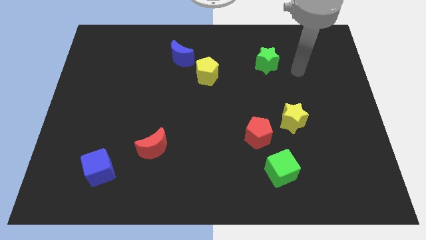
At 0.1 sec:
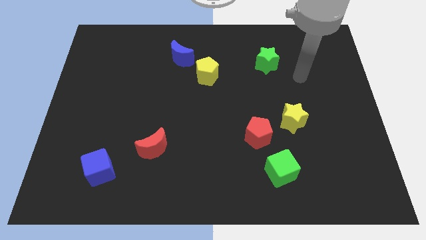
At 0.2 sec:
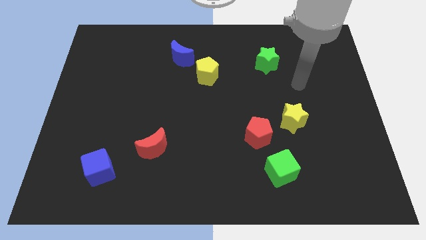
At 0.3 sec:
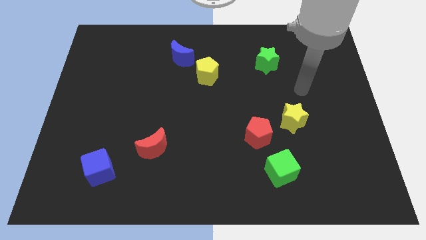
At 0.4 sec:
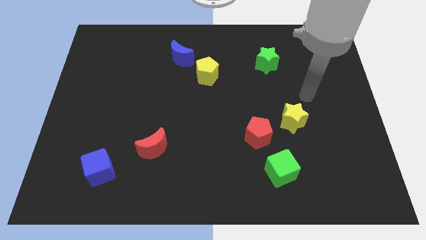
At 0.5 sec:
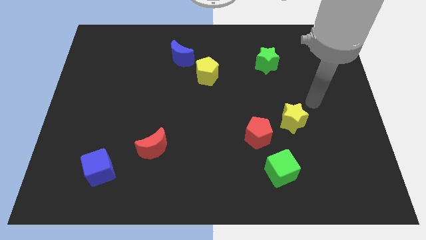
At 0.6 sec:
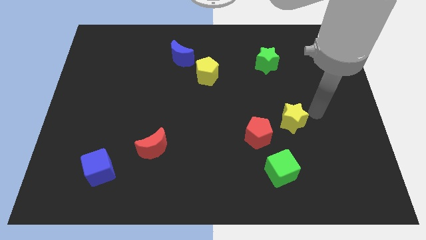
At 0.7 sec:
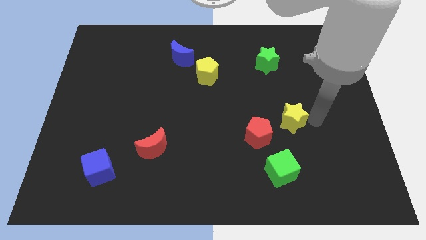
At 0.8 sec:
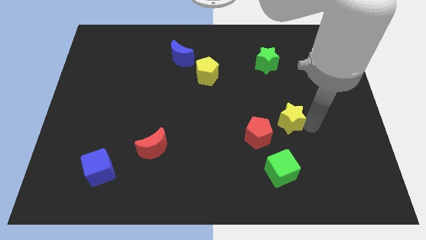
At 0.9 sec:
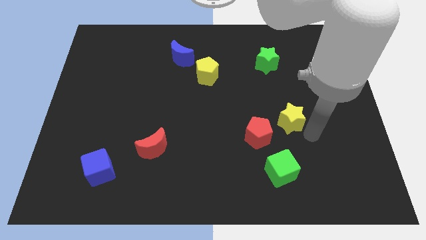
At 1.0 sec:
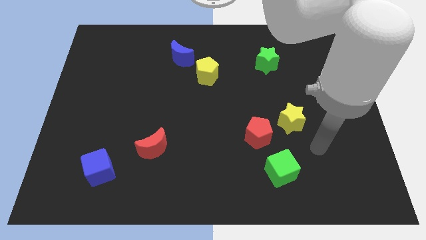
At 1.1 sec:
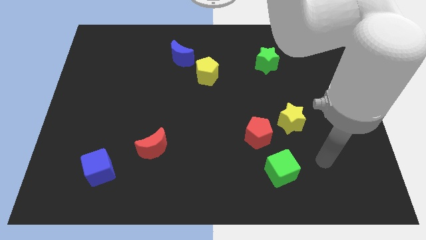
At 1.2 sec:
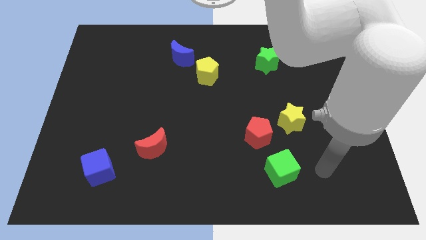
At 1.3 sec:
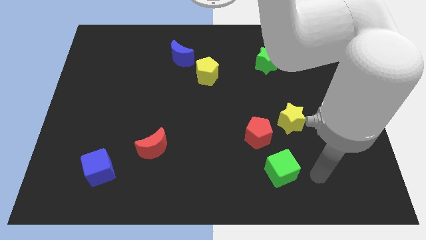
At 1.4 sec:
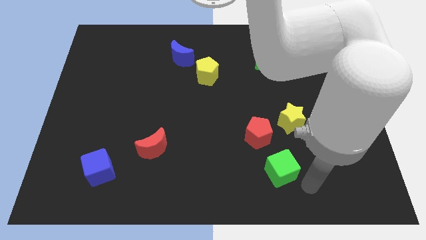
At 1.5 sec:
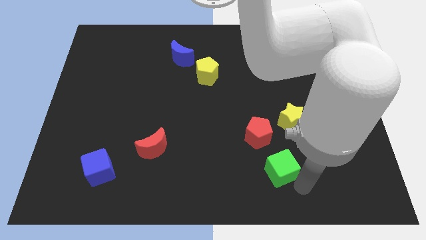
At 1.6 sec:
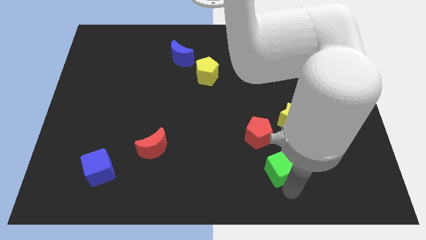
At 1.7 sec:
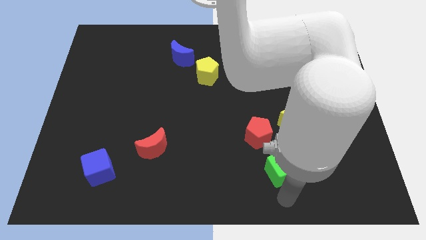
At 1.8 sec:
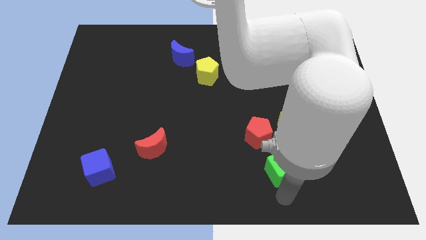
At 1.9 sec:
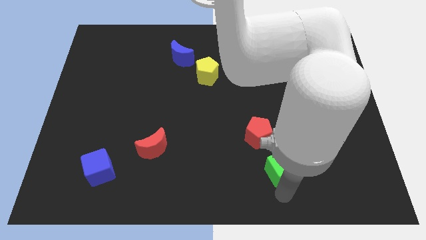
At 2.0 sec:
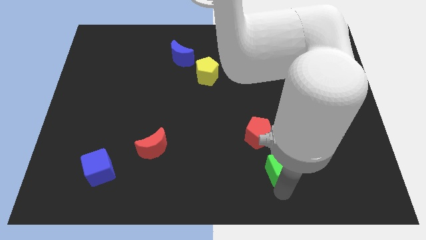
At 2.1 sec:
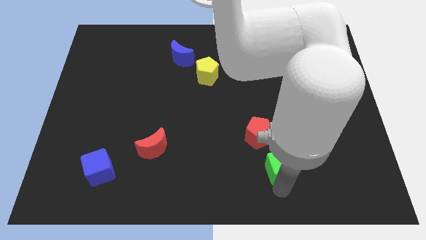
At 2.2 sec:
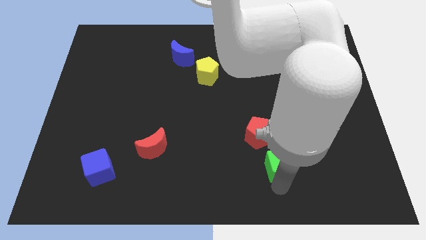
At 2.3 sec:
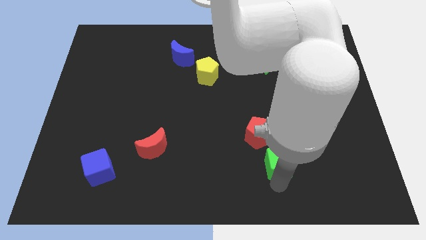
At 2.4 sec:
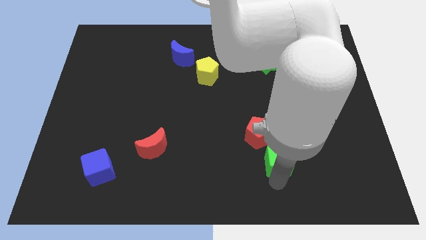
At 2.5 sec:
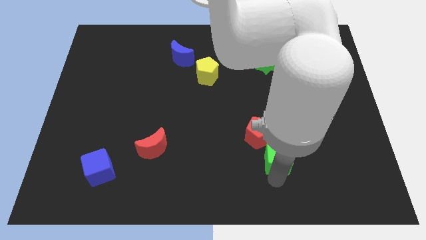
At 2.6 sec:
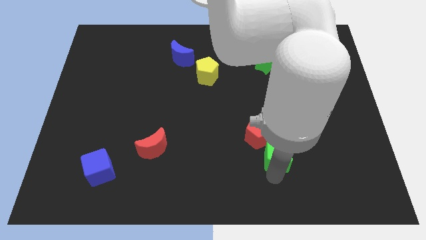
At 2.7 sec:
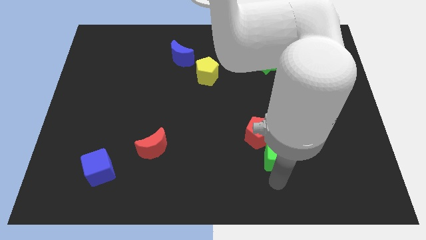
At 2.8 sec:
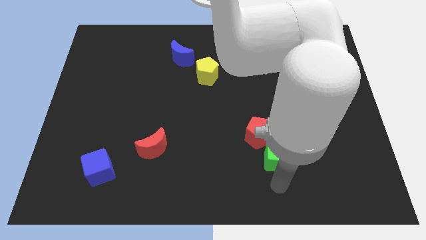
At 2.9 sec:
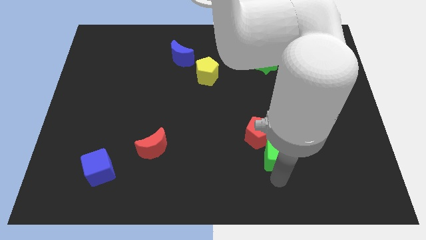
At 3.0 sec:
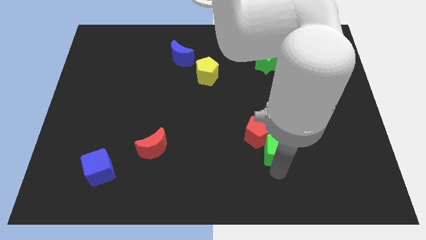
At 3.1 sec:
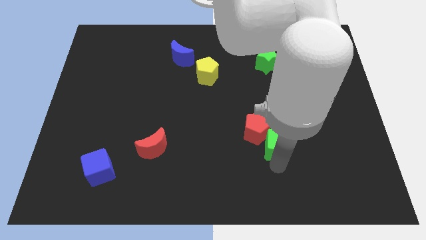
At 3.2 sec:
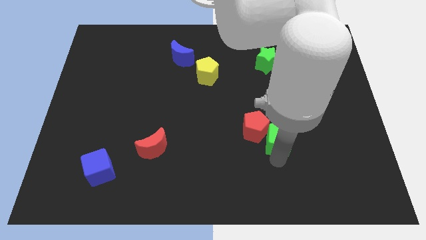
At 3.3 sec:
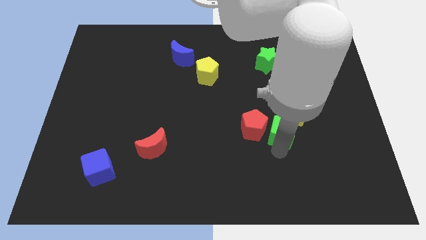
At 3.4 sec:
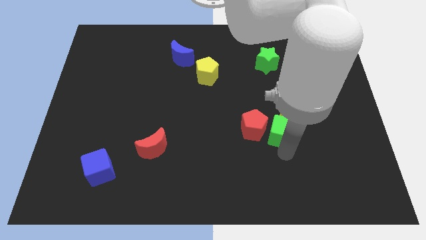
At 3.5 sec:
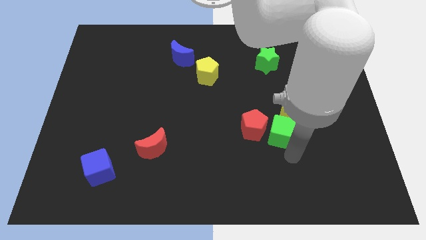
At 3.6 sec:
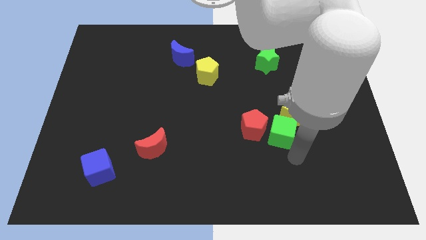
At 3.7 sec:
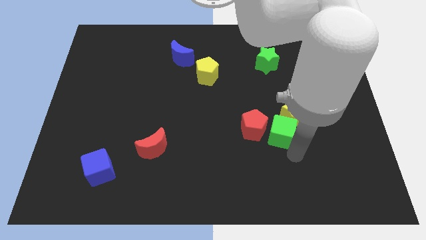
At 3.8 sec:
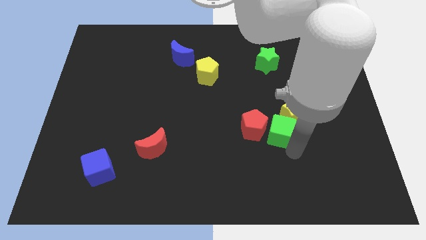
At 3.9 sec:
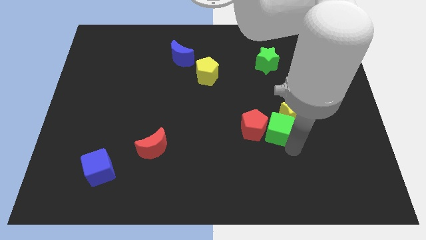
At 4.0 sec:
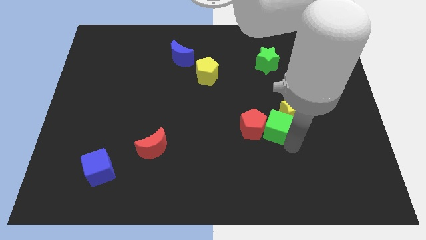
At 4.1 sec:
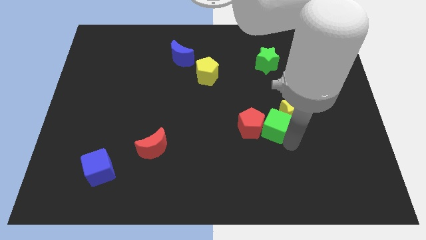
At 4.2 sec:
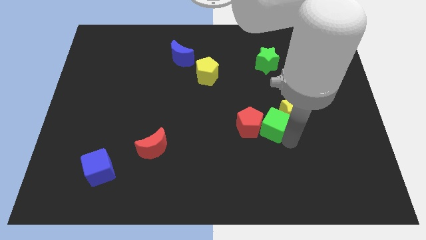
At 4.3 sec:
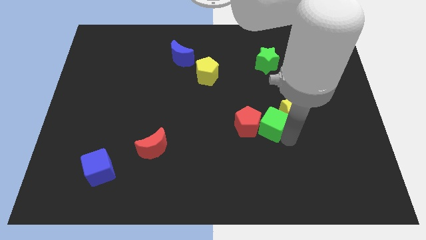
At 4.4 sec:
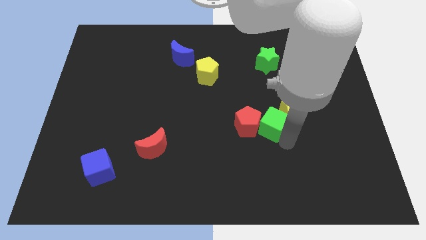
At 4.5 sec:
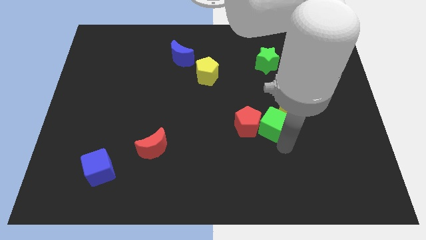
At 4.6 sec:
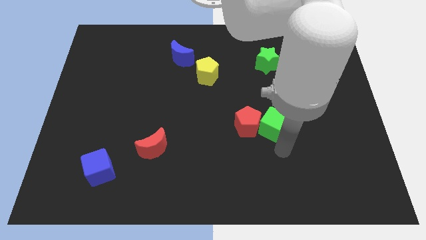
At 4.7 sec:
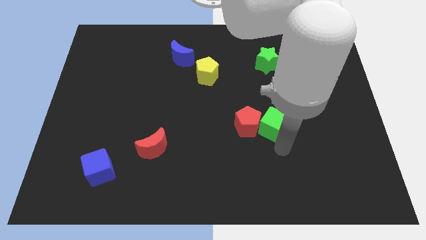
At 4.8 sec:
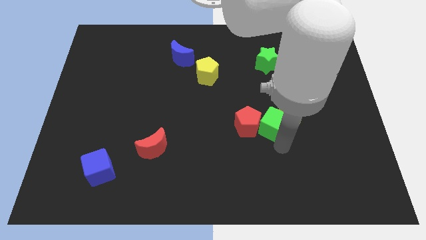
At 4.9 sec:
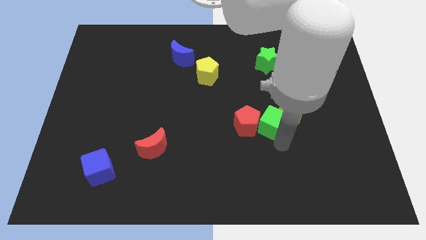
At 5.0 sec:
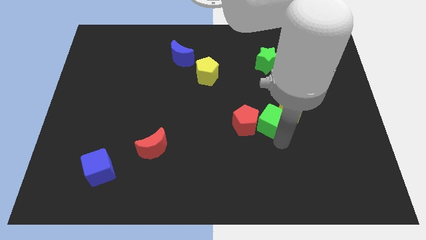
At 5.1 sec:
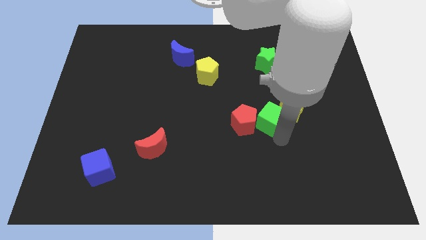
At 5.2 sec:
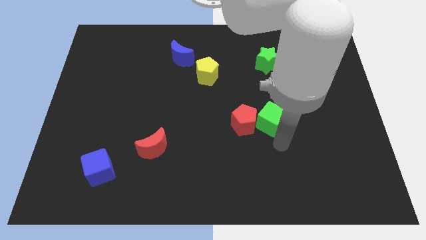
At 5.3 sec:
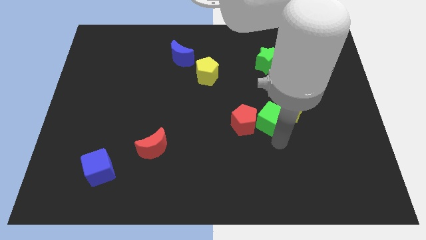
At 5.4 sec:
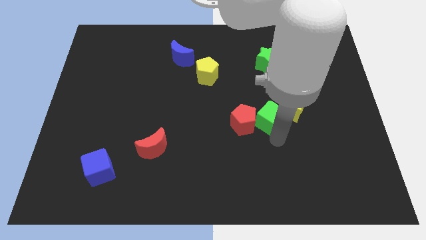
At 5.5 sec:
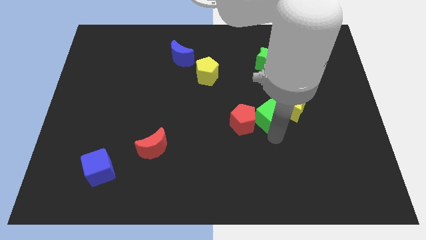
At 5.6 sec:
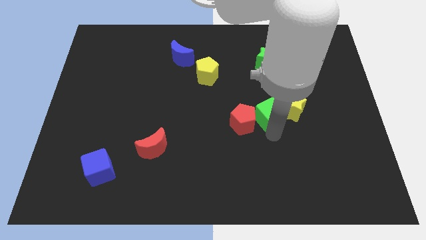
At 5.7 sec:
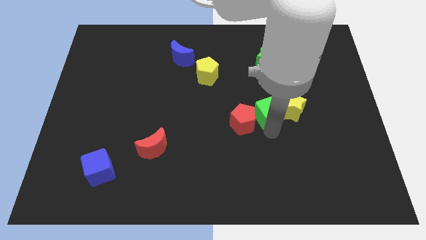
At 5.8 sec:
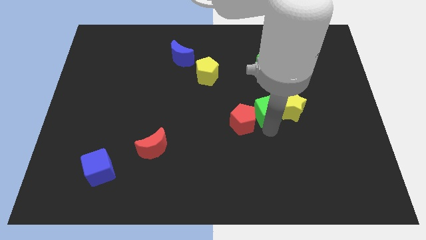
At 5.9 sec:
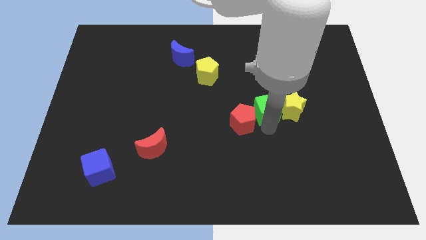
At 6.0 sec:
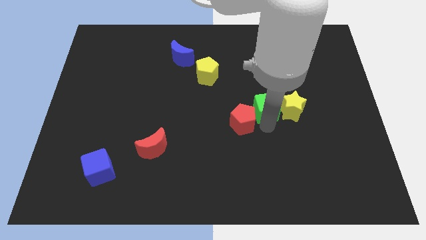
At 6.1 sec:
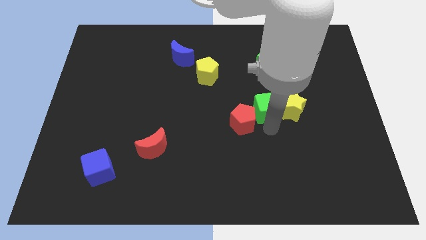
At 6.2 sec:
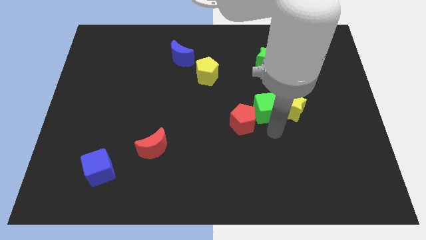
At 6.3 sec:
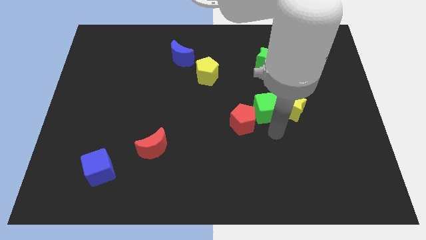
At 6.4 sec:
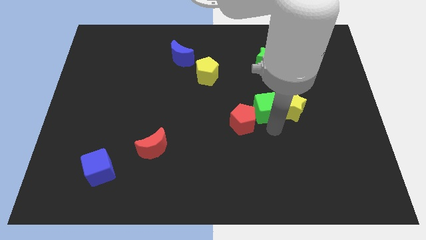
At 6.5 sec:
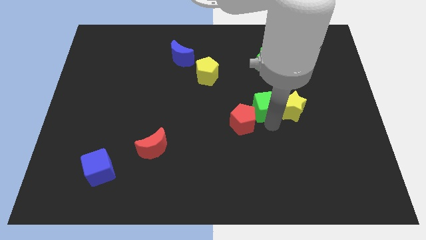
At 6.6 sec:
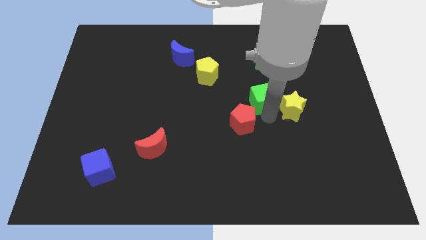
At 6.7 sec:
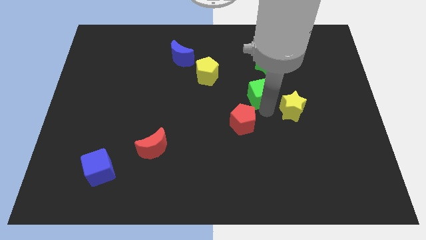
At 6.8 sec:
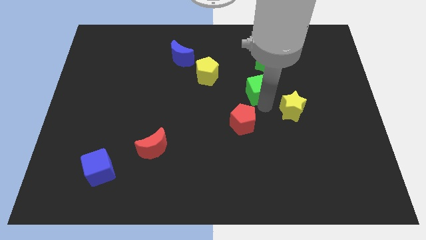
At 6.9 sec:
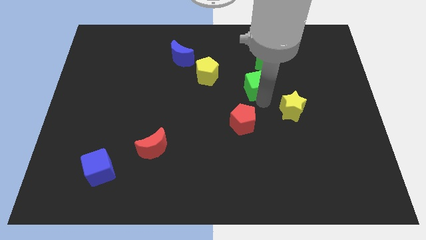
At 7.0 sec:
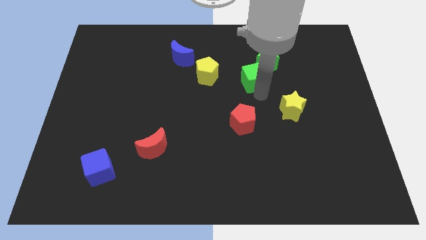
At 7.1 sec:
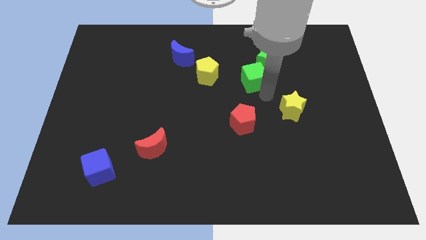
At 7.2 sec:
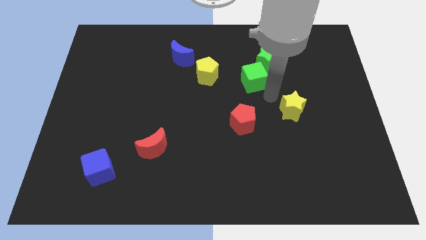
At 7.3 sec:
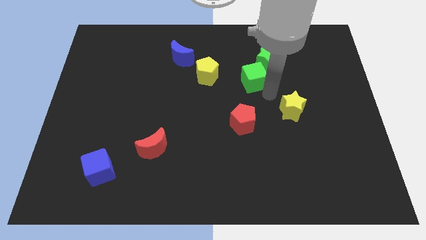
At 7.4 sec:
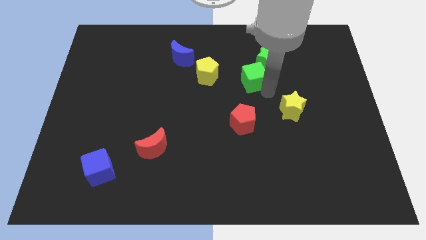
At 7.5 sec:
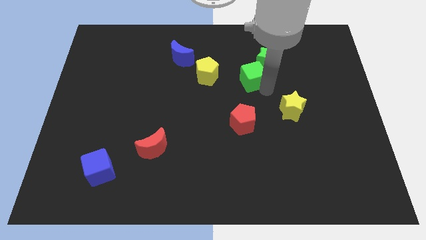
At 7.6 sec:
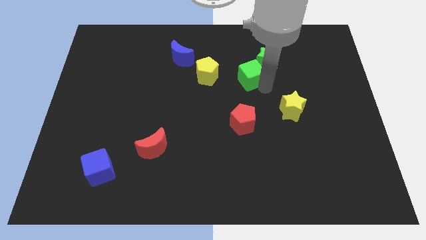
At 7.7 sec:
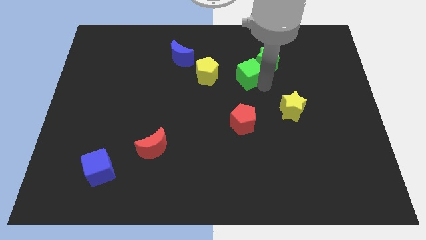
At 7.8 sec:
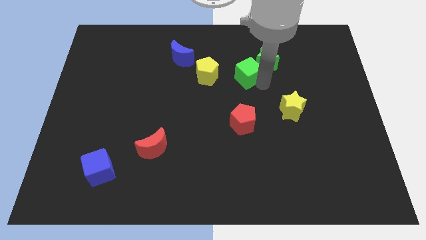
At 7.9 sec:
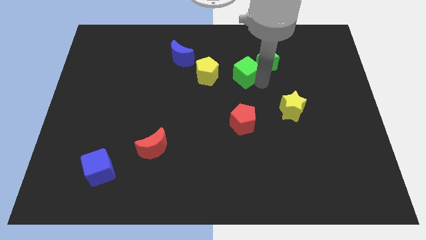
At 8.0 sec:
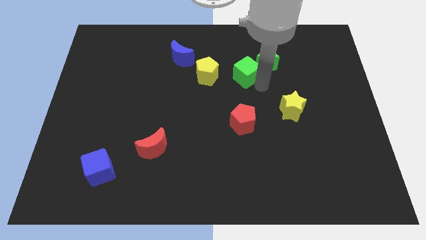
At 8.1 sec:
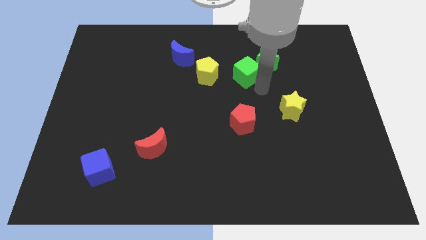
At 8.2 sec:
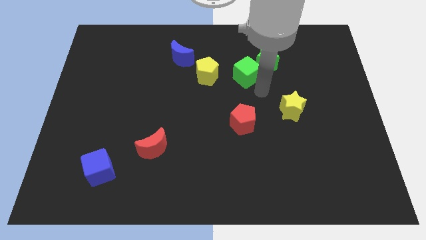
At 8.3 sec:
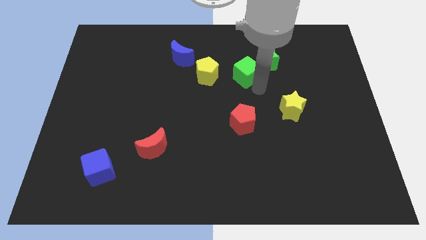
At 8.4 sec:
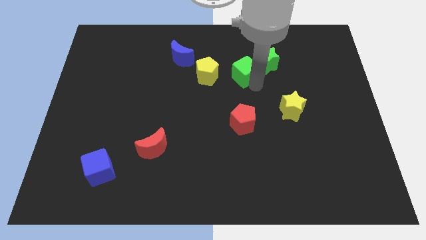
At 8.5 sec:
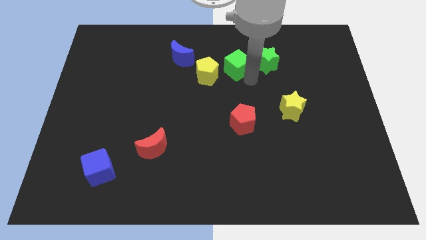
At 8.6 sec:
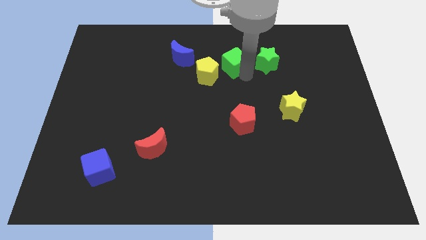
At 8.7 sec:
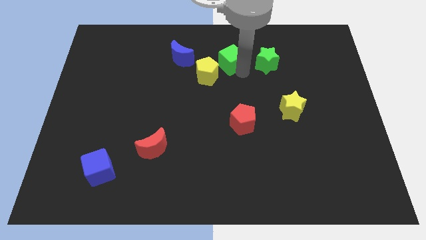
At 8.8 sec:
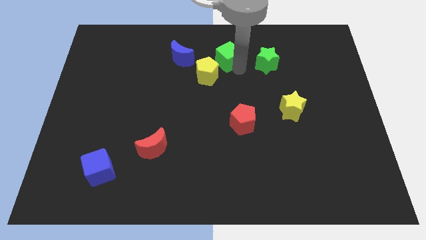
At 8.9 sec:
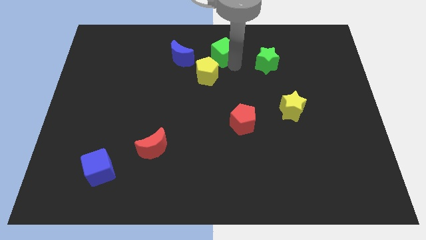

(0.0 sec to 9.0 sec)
slide the green cube to the top side
